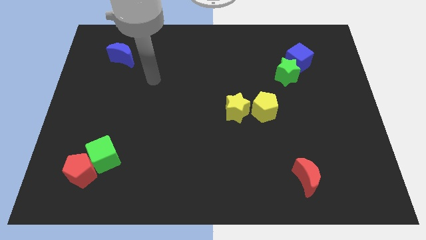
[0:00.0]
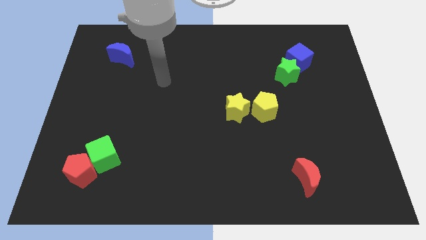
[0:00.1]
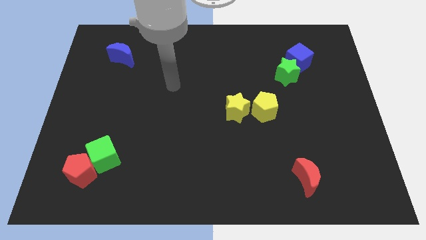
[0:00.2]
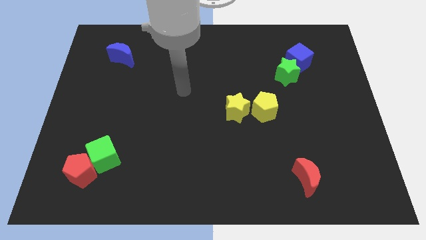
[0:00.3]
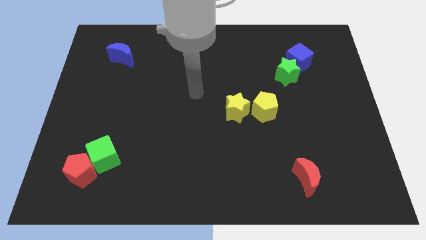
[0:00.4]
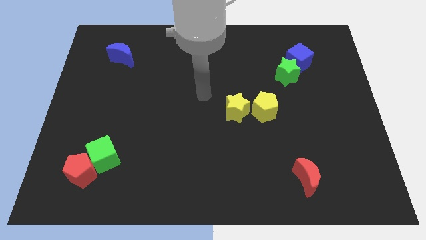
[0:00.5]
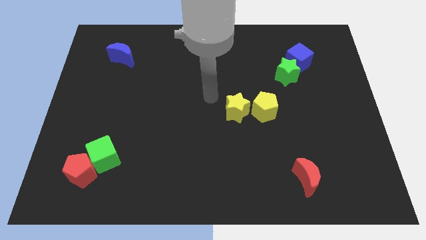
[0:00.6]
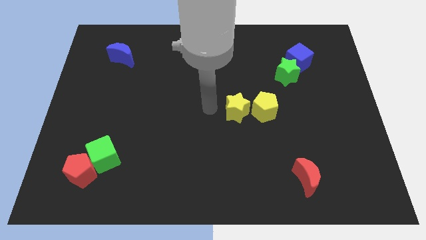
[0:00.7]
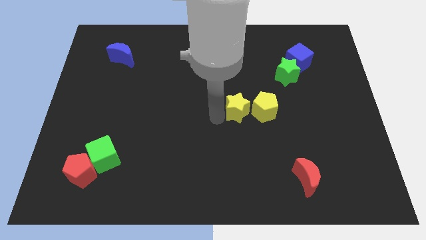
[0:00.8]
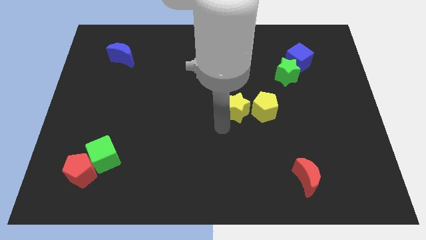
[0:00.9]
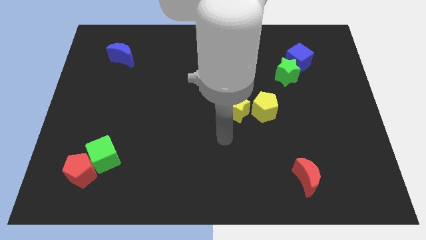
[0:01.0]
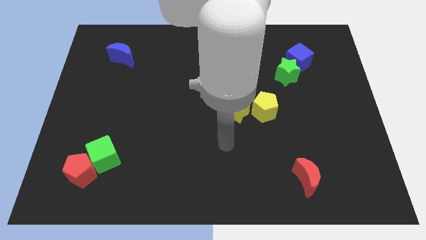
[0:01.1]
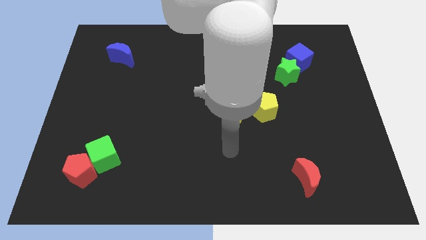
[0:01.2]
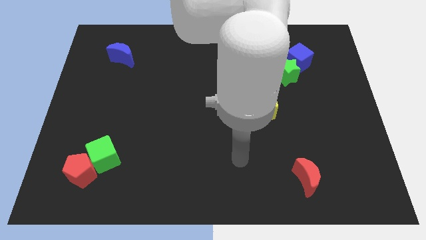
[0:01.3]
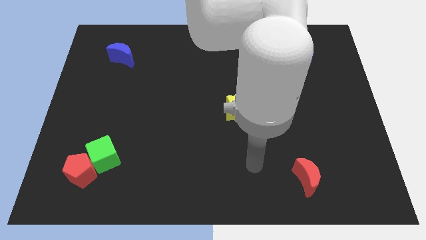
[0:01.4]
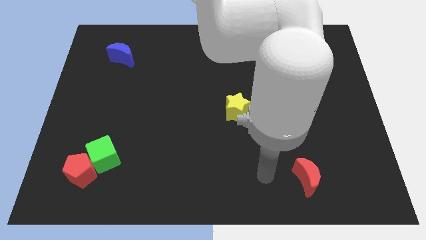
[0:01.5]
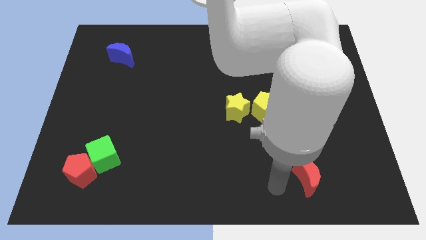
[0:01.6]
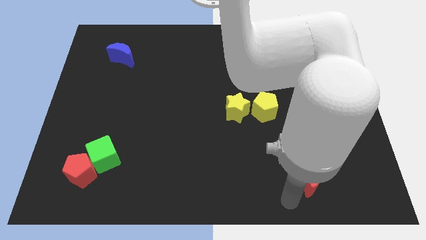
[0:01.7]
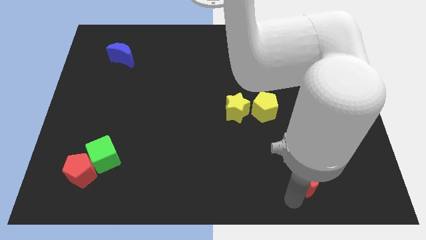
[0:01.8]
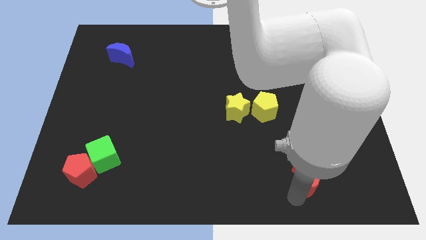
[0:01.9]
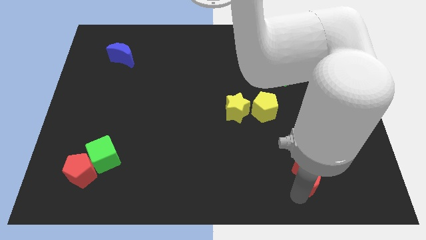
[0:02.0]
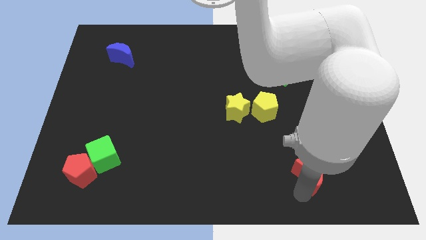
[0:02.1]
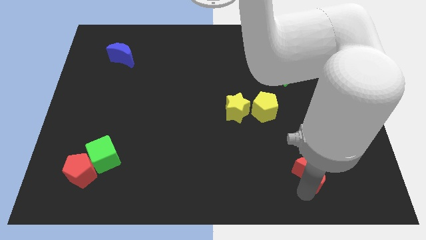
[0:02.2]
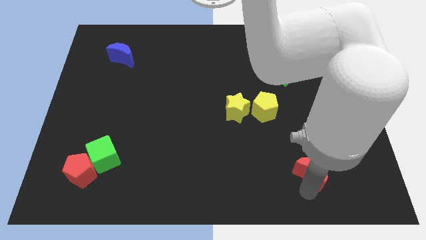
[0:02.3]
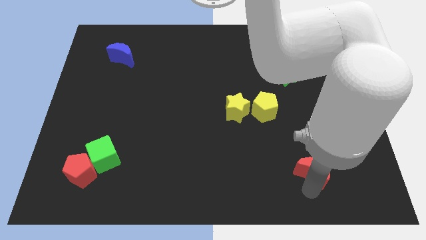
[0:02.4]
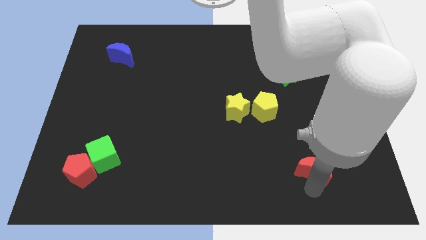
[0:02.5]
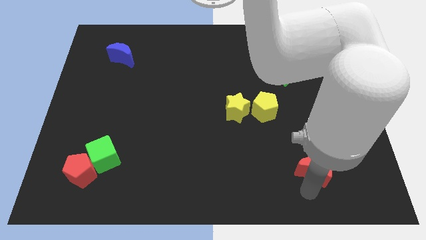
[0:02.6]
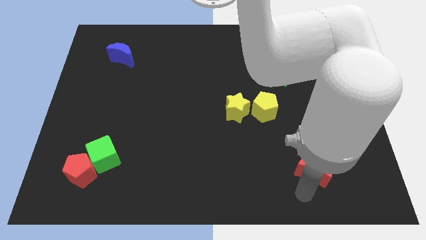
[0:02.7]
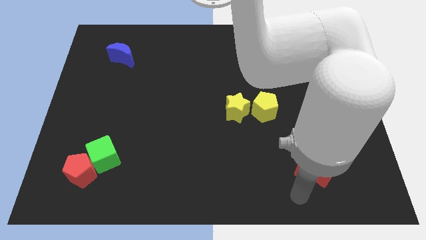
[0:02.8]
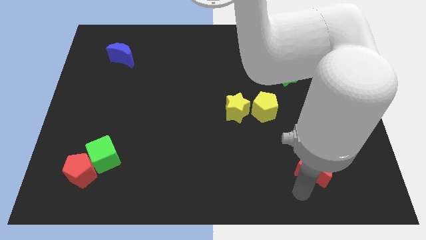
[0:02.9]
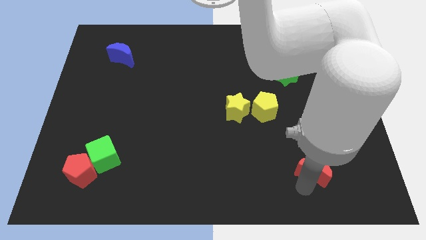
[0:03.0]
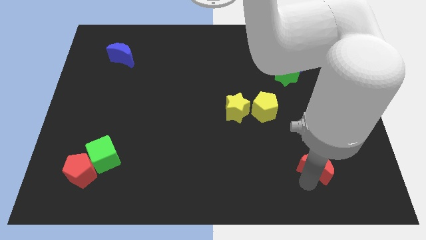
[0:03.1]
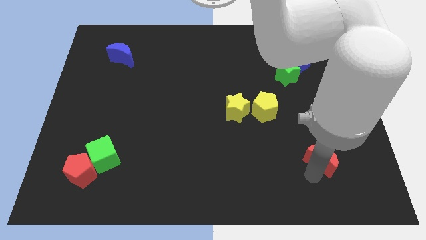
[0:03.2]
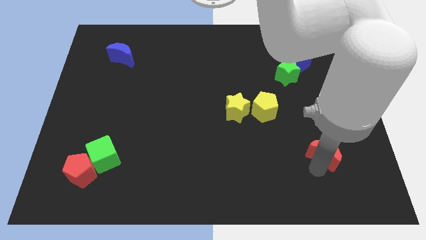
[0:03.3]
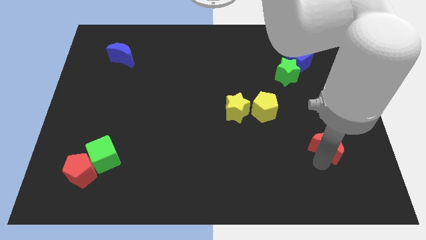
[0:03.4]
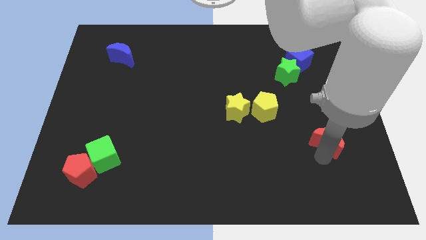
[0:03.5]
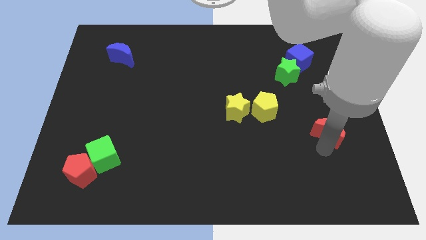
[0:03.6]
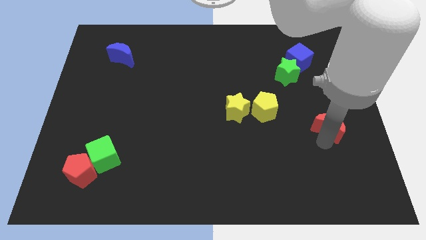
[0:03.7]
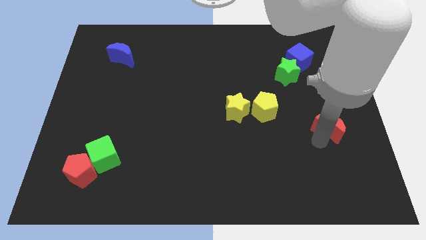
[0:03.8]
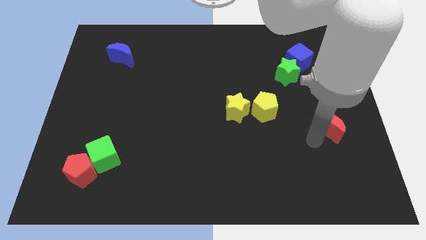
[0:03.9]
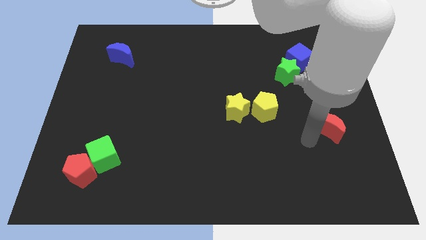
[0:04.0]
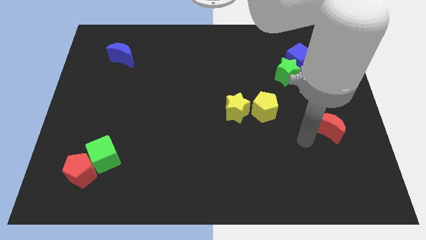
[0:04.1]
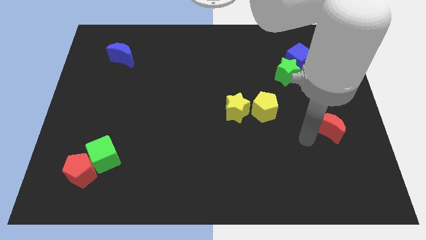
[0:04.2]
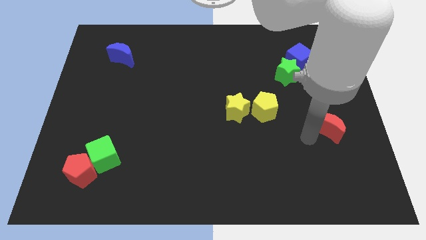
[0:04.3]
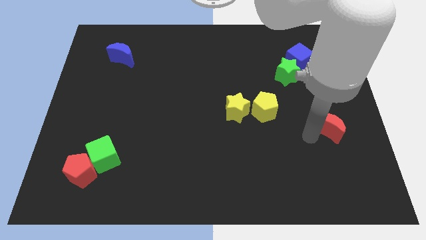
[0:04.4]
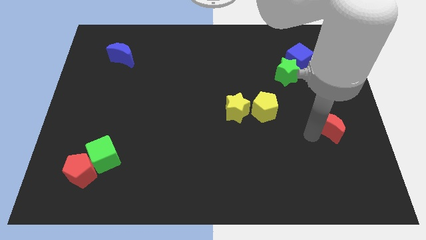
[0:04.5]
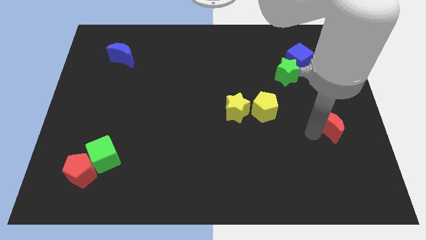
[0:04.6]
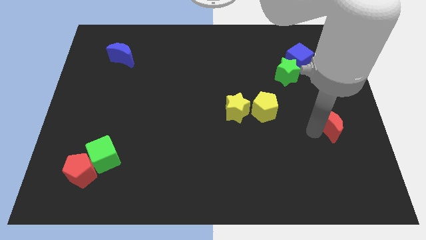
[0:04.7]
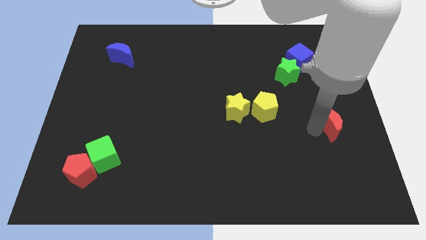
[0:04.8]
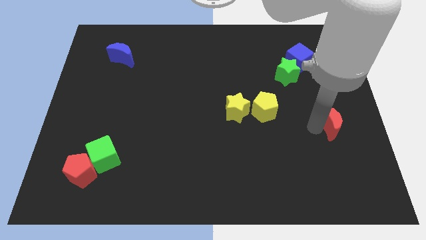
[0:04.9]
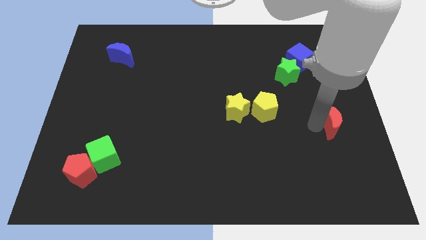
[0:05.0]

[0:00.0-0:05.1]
push the red moon to the right side

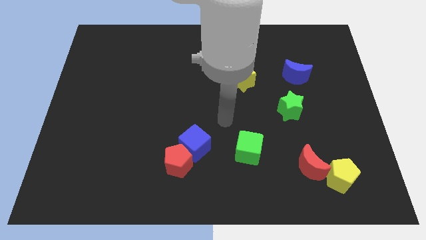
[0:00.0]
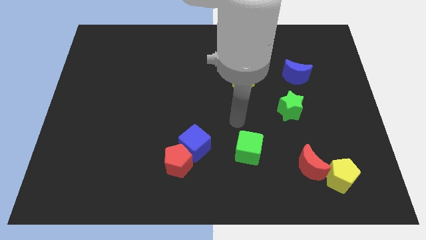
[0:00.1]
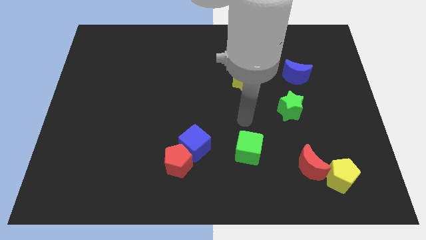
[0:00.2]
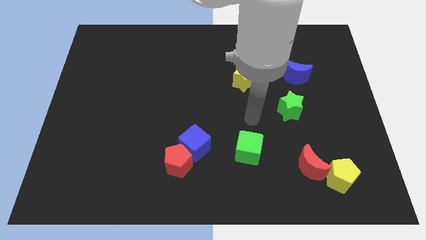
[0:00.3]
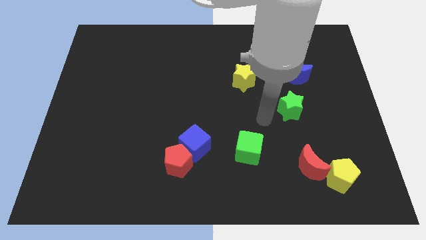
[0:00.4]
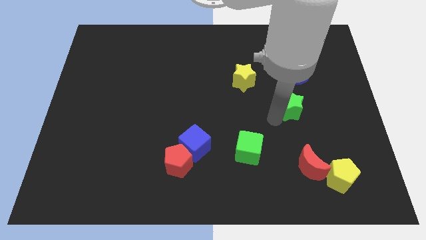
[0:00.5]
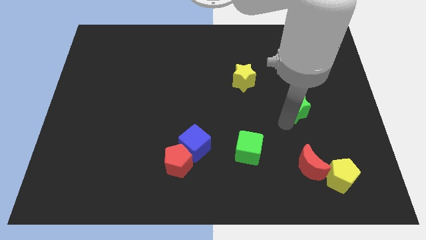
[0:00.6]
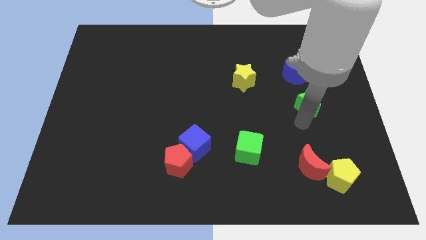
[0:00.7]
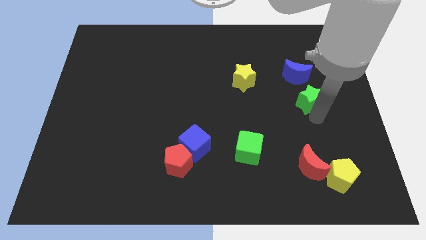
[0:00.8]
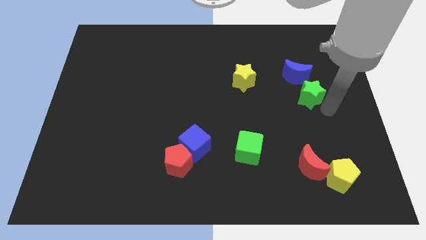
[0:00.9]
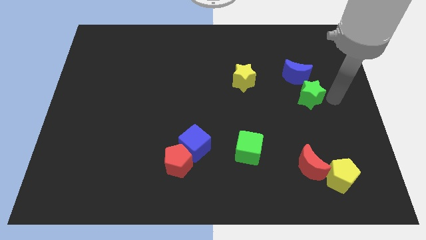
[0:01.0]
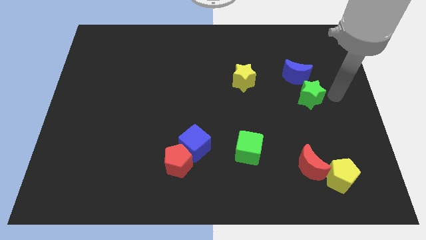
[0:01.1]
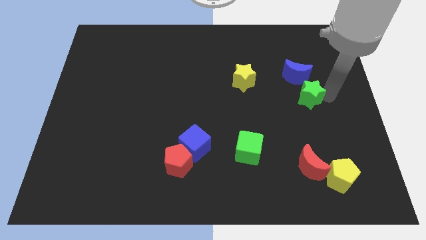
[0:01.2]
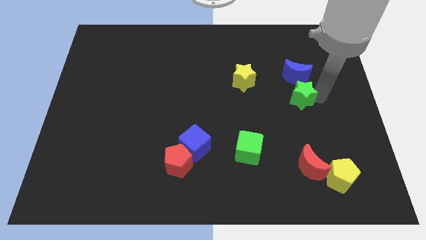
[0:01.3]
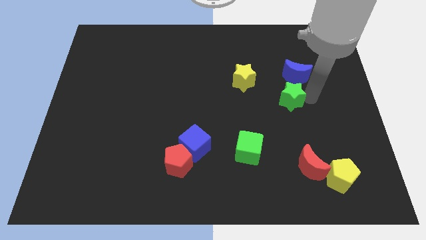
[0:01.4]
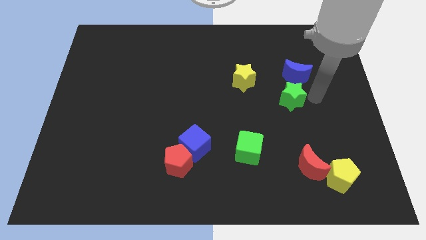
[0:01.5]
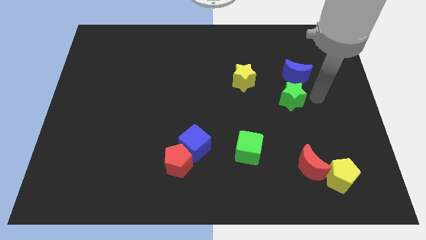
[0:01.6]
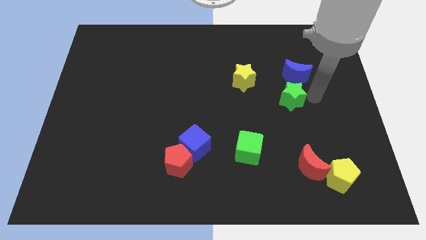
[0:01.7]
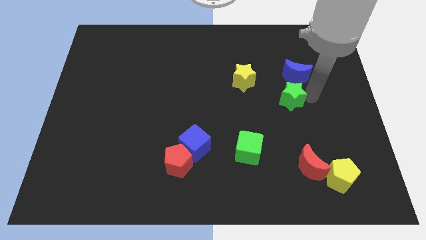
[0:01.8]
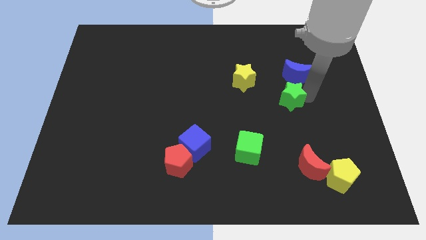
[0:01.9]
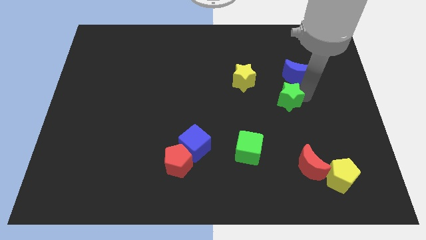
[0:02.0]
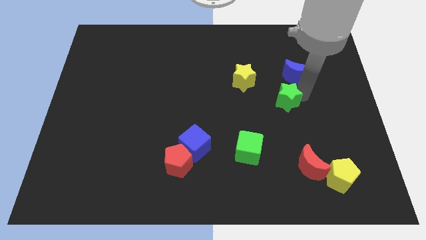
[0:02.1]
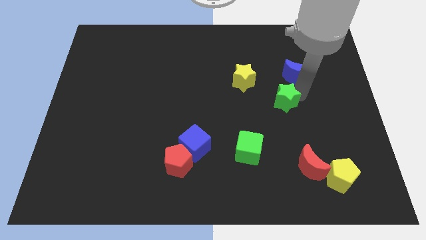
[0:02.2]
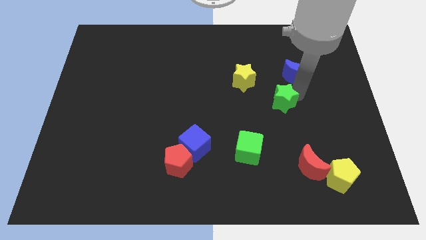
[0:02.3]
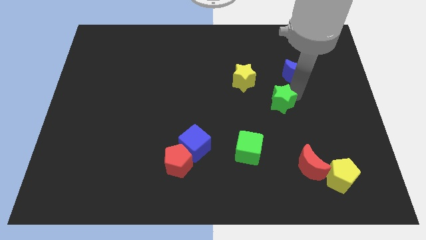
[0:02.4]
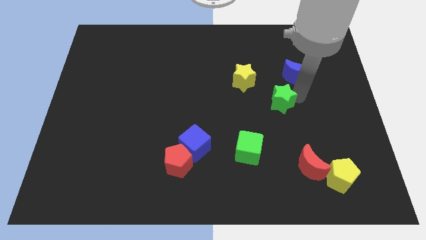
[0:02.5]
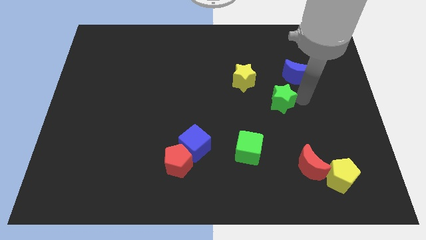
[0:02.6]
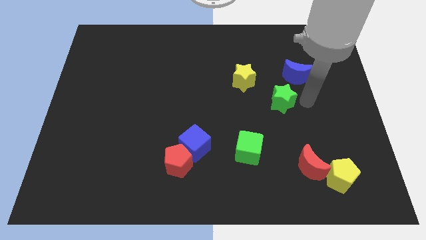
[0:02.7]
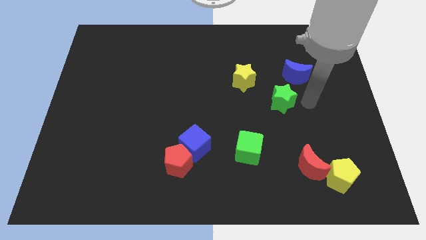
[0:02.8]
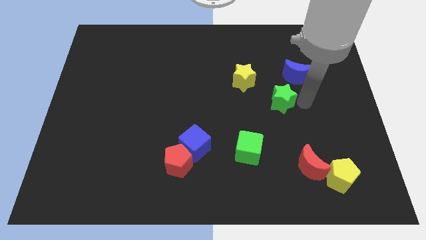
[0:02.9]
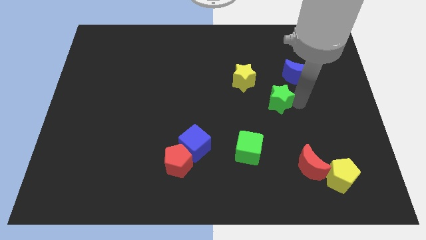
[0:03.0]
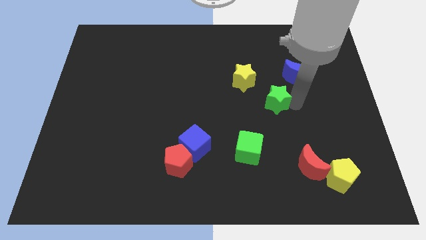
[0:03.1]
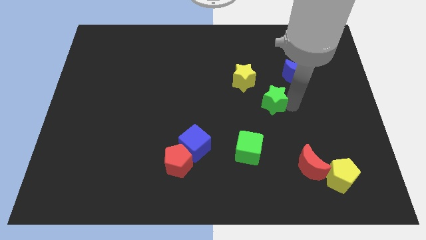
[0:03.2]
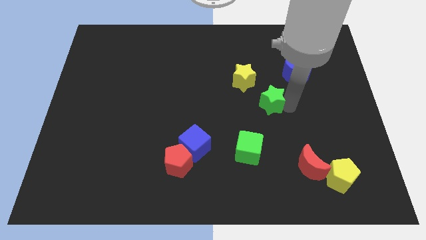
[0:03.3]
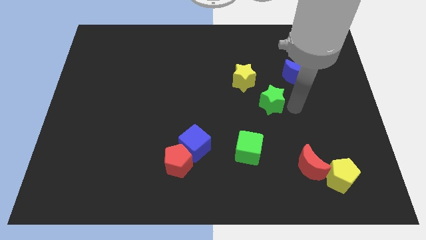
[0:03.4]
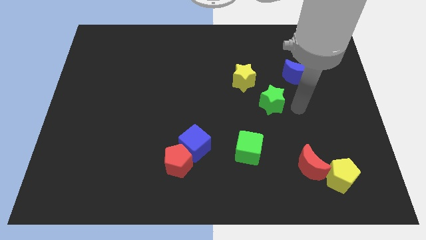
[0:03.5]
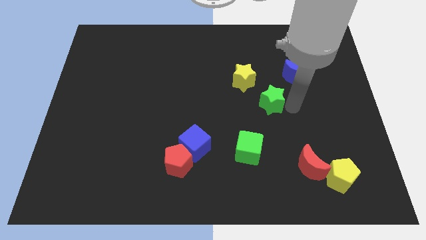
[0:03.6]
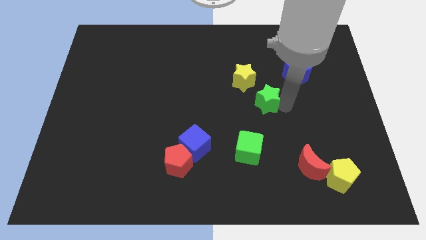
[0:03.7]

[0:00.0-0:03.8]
push the green star to the center
